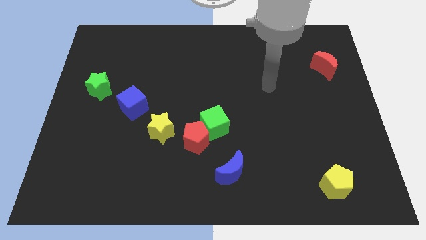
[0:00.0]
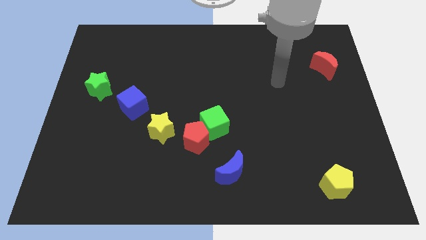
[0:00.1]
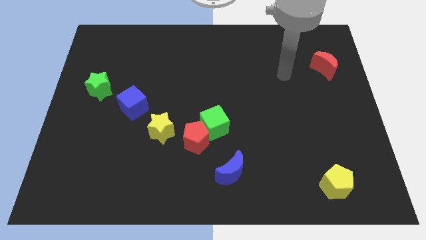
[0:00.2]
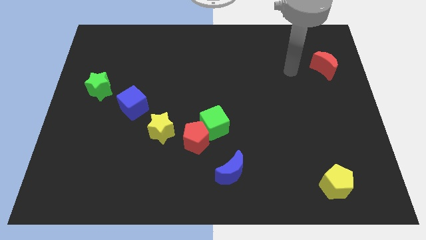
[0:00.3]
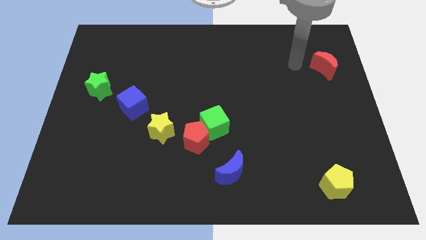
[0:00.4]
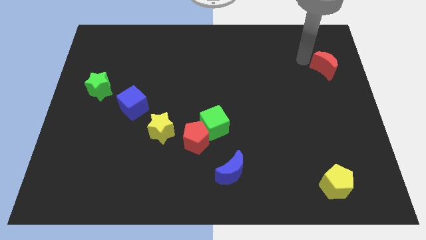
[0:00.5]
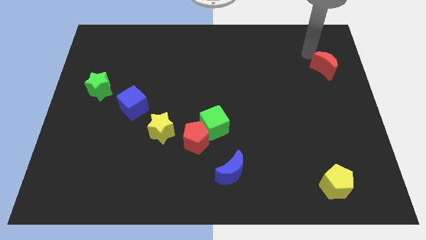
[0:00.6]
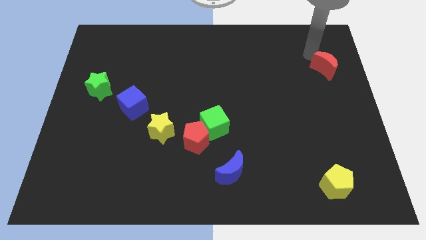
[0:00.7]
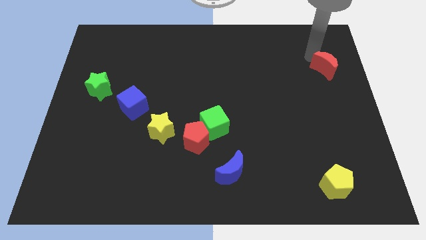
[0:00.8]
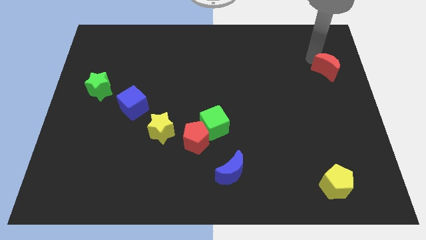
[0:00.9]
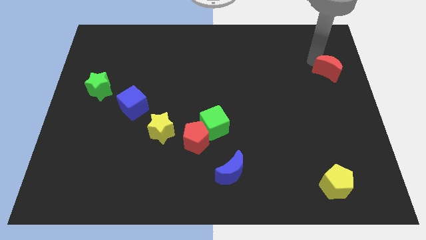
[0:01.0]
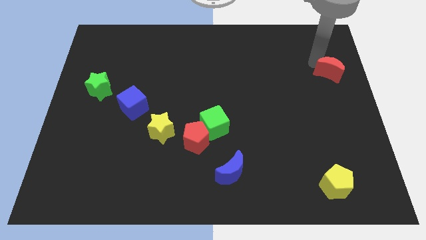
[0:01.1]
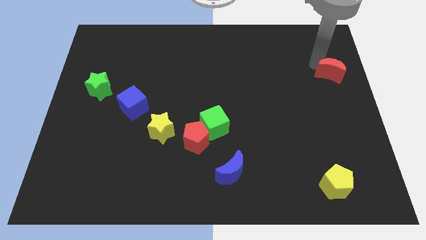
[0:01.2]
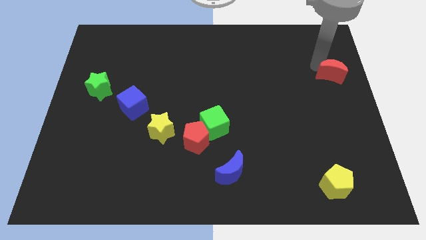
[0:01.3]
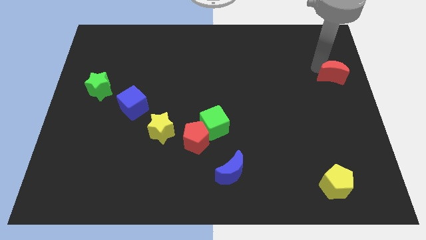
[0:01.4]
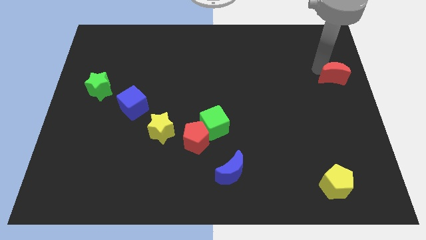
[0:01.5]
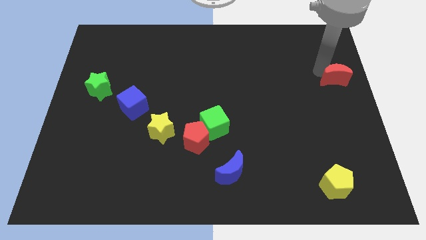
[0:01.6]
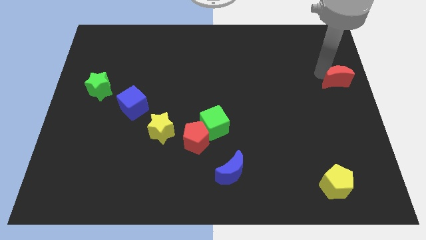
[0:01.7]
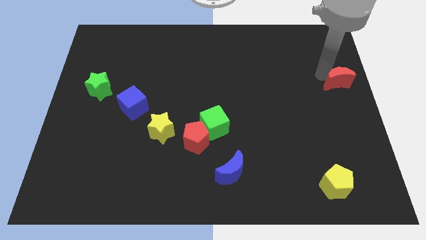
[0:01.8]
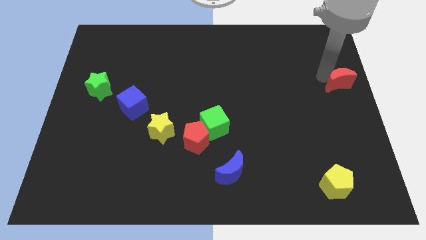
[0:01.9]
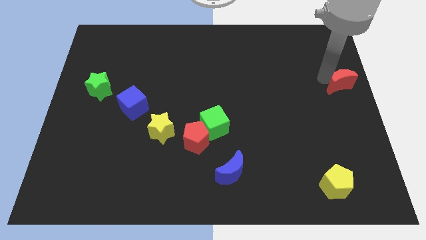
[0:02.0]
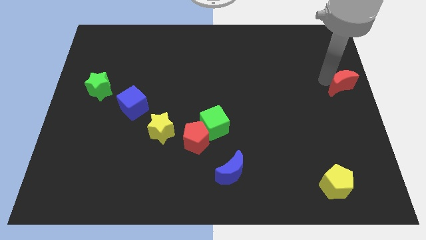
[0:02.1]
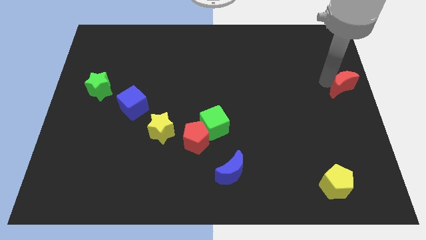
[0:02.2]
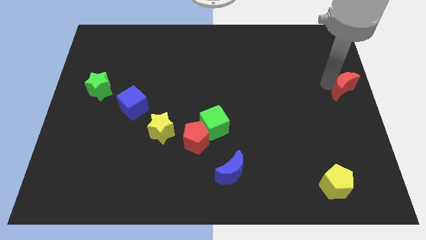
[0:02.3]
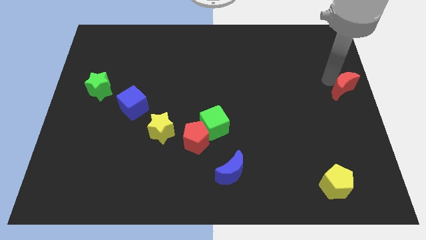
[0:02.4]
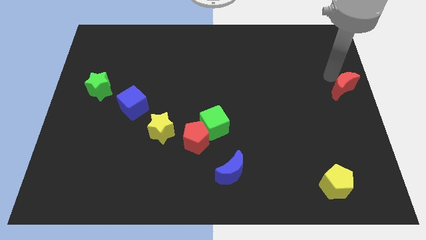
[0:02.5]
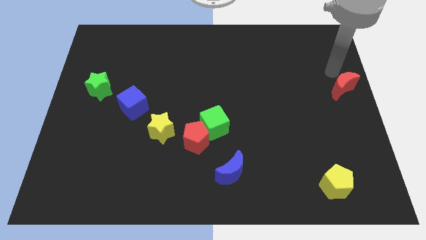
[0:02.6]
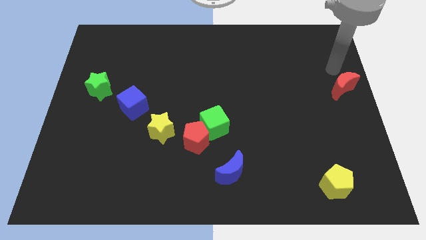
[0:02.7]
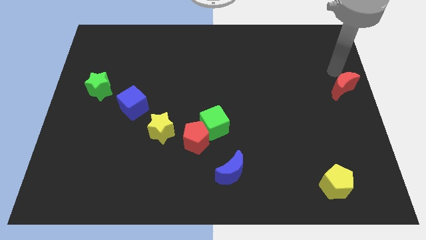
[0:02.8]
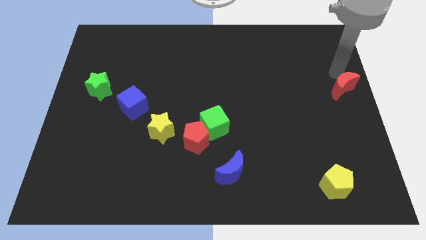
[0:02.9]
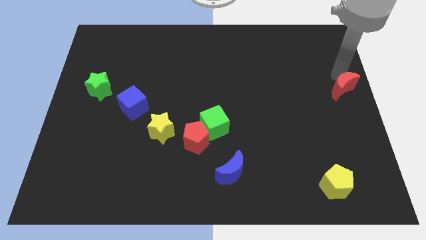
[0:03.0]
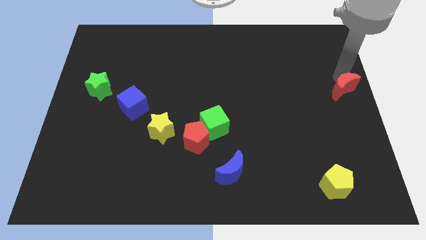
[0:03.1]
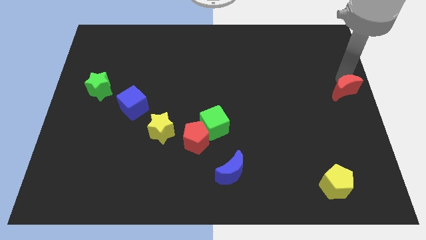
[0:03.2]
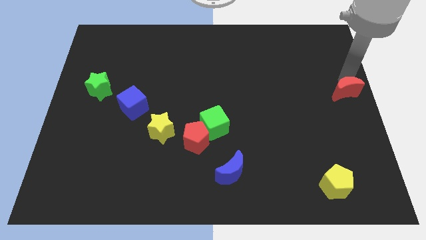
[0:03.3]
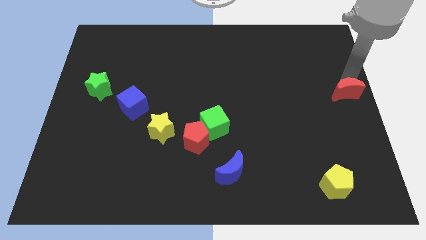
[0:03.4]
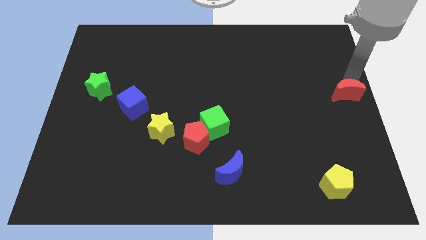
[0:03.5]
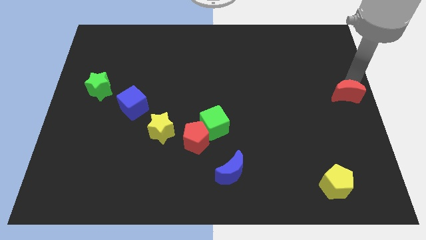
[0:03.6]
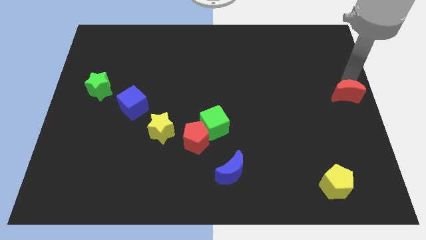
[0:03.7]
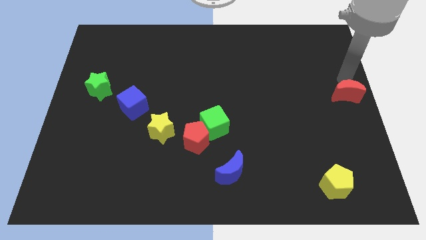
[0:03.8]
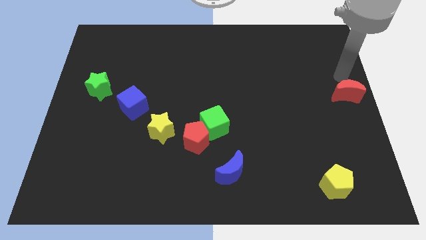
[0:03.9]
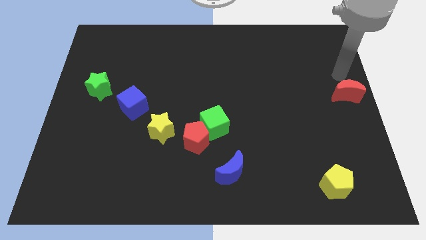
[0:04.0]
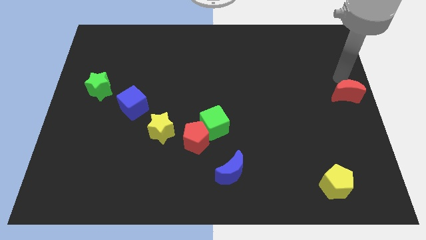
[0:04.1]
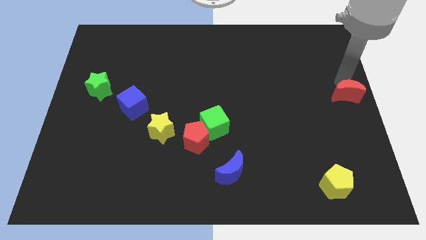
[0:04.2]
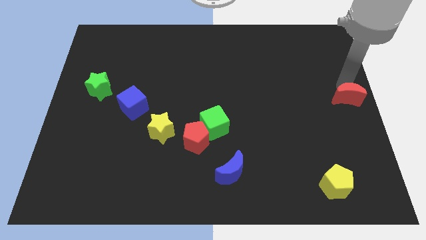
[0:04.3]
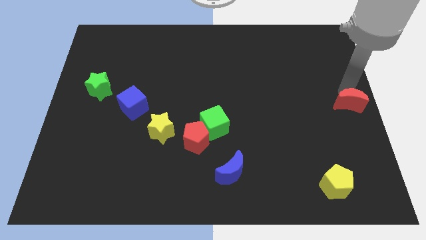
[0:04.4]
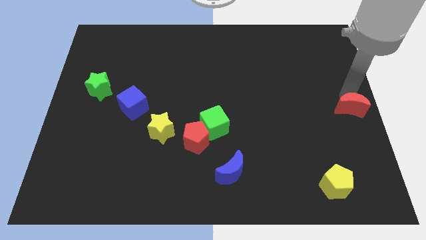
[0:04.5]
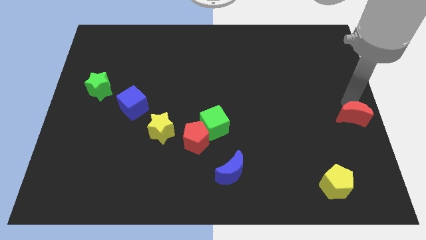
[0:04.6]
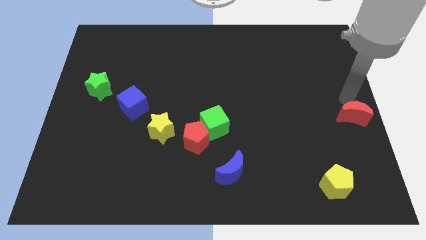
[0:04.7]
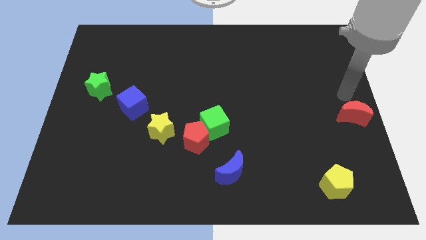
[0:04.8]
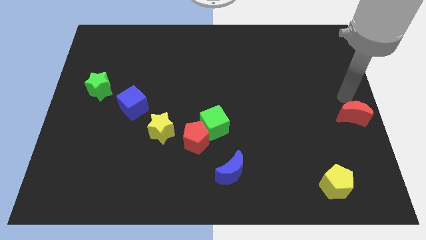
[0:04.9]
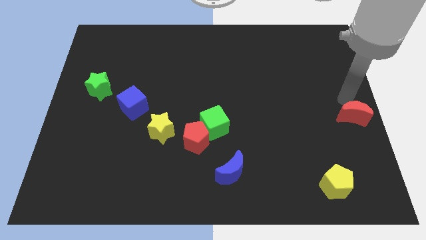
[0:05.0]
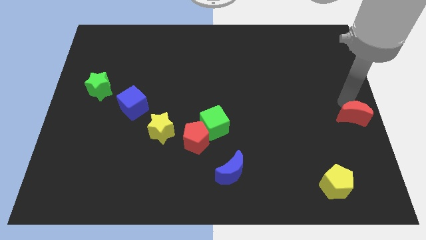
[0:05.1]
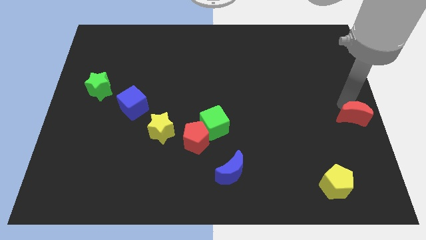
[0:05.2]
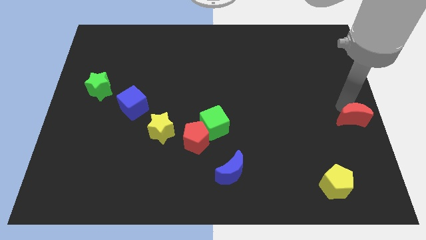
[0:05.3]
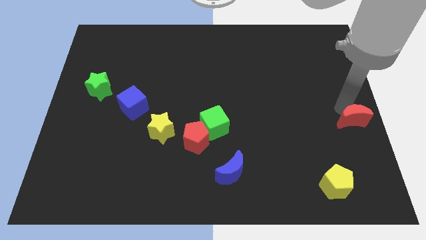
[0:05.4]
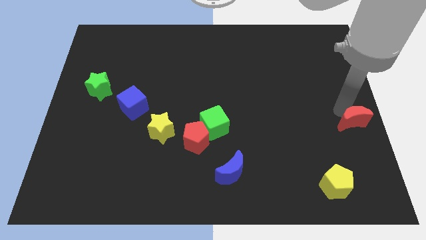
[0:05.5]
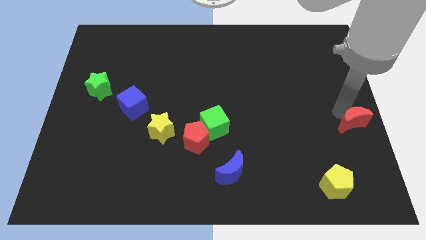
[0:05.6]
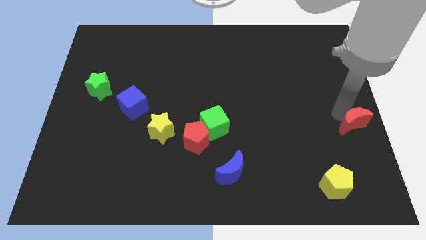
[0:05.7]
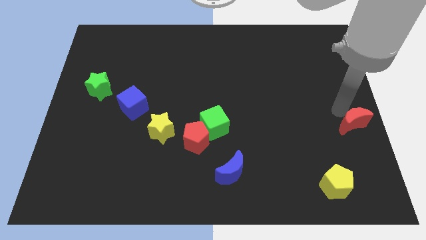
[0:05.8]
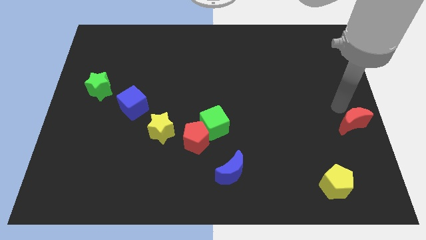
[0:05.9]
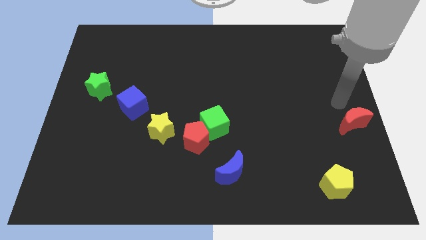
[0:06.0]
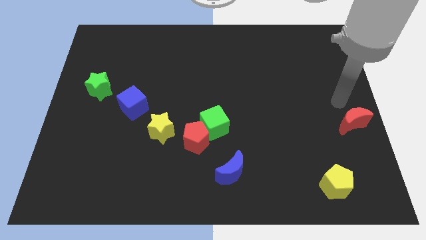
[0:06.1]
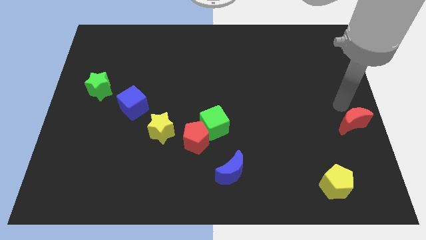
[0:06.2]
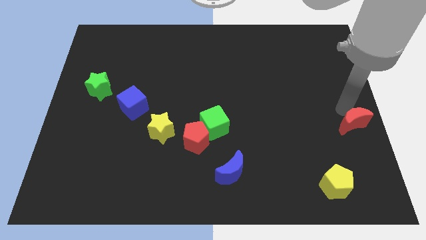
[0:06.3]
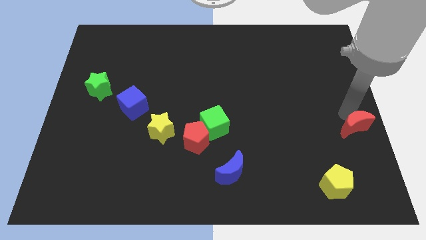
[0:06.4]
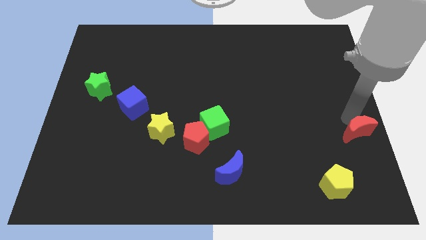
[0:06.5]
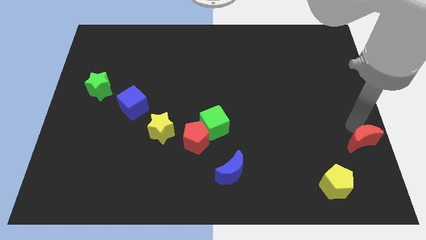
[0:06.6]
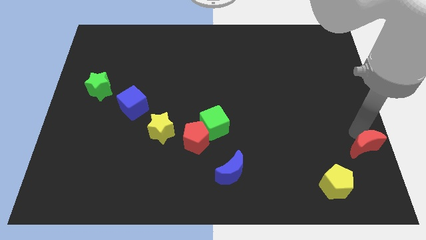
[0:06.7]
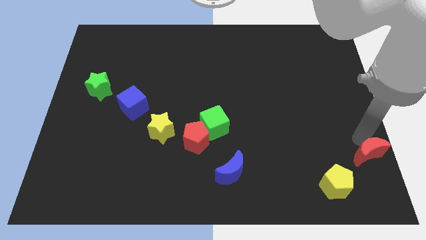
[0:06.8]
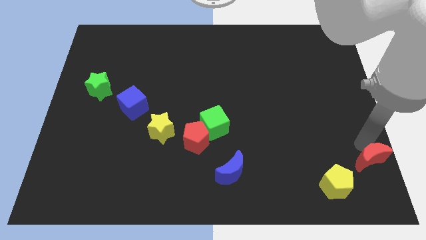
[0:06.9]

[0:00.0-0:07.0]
push the red moon to the bottom right
